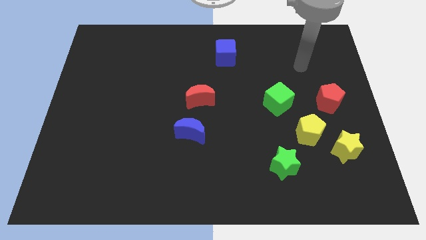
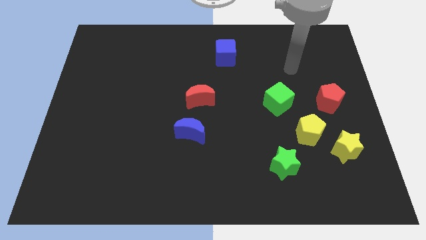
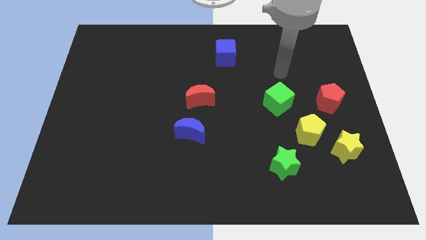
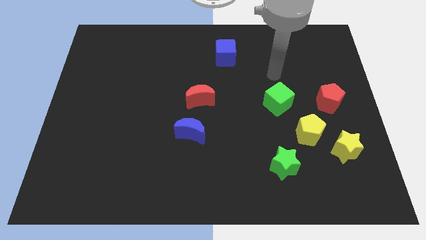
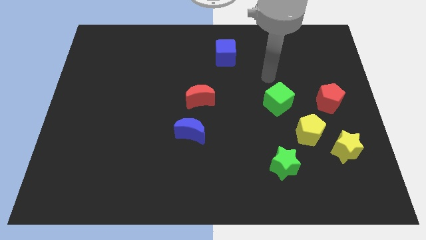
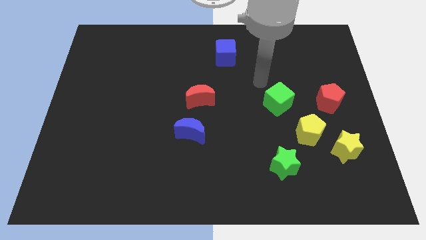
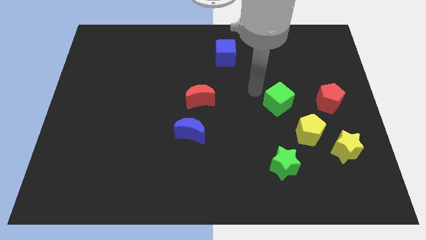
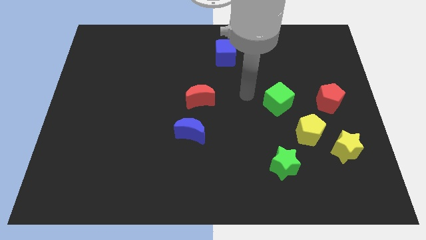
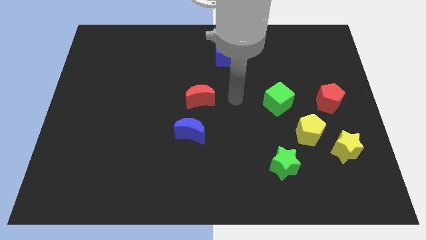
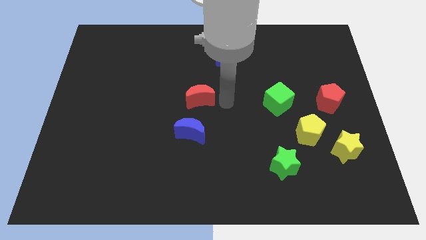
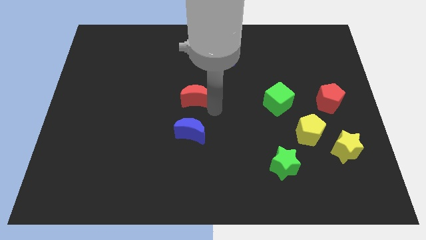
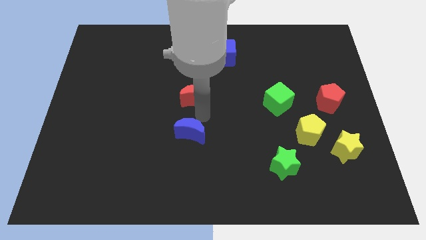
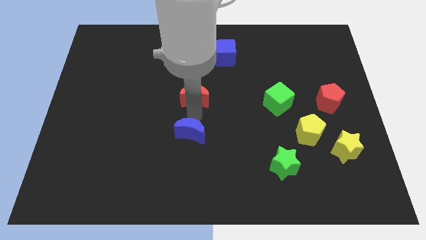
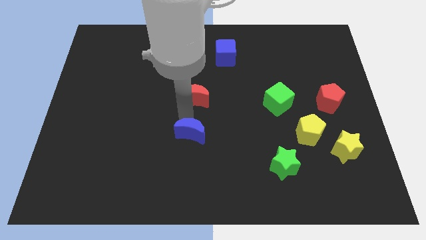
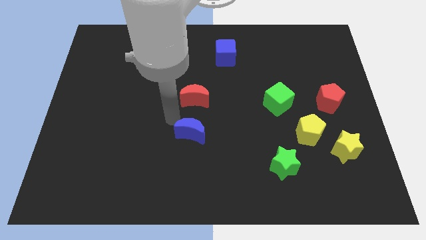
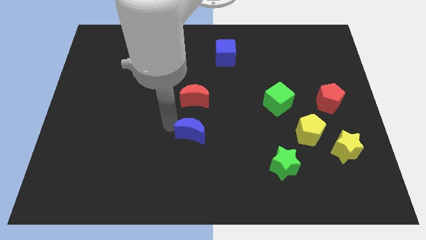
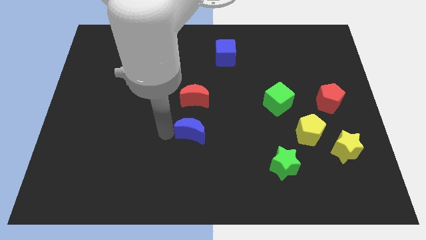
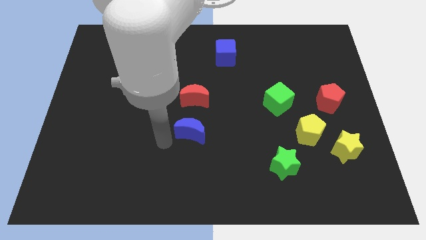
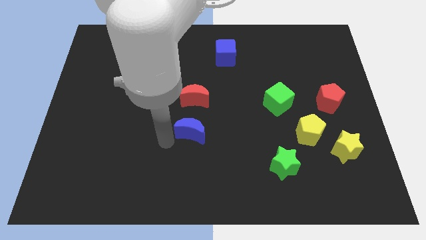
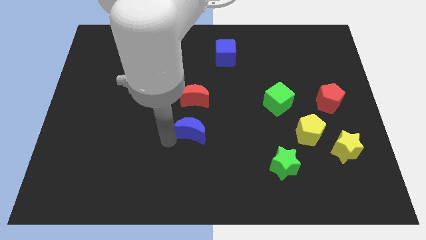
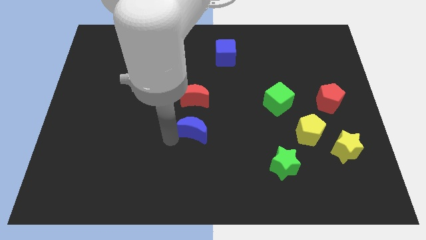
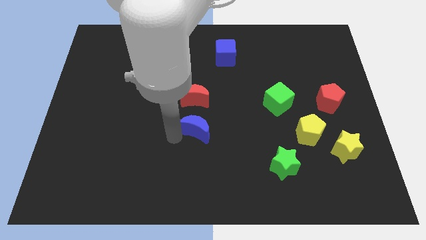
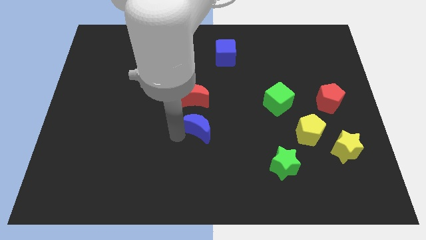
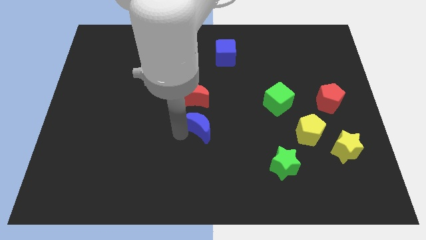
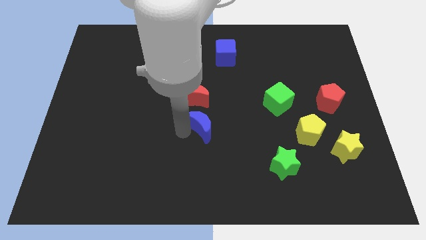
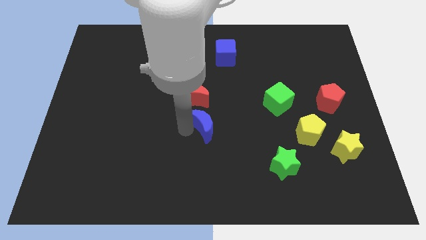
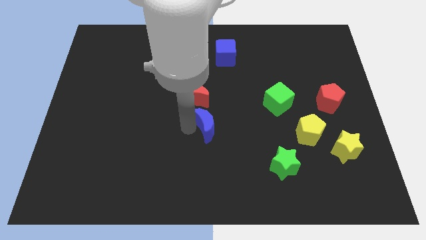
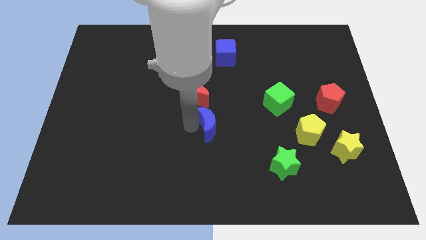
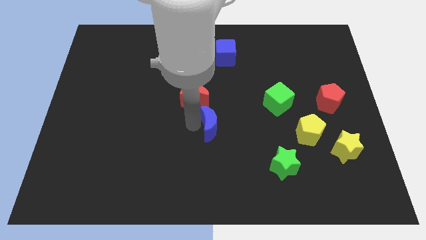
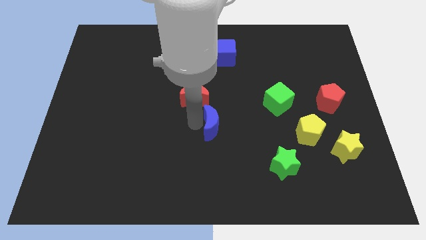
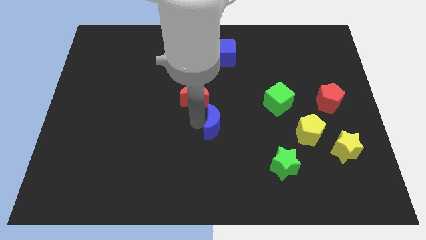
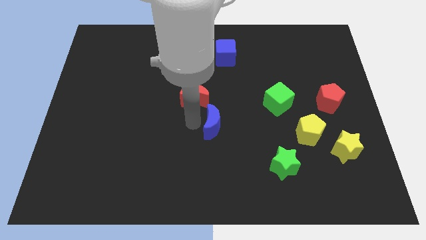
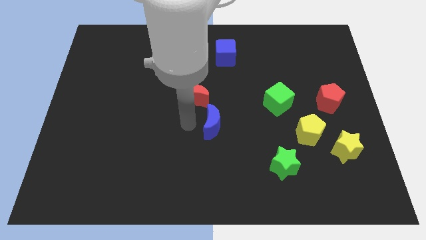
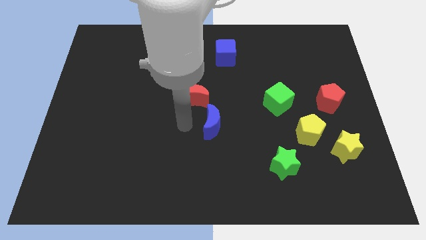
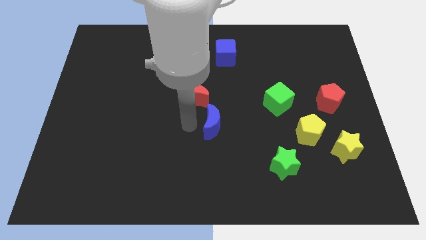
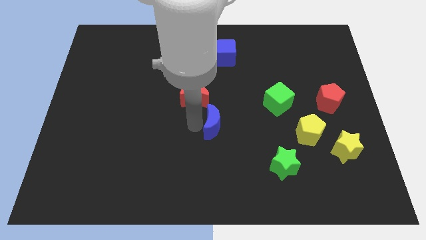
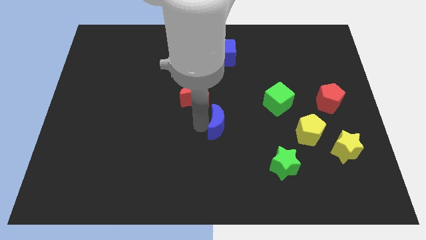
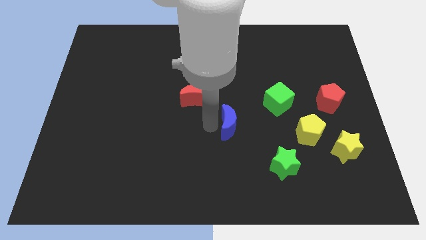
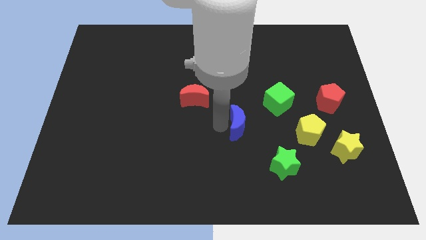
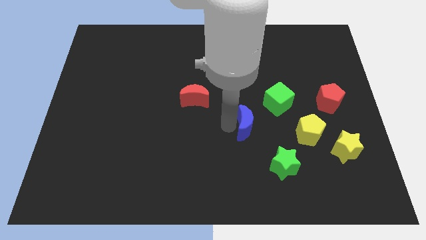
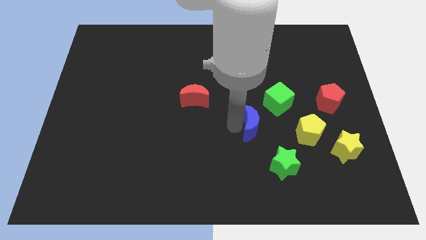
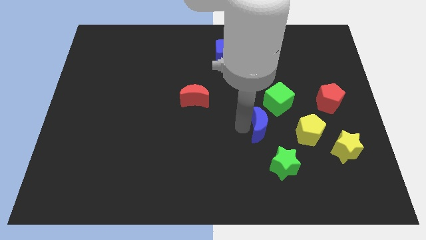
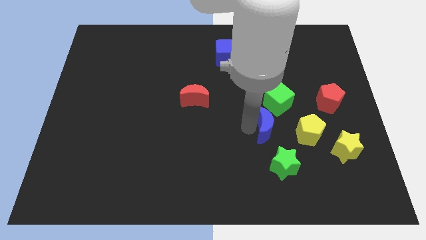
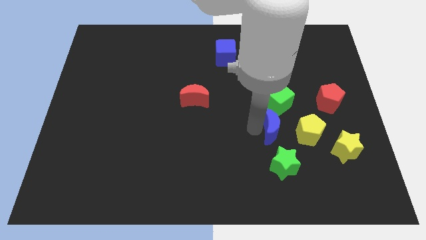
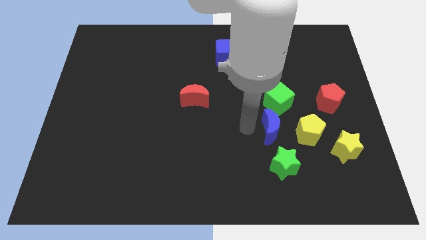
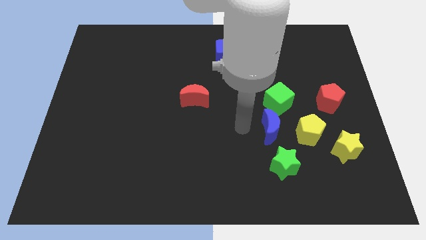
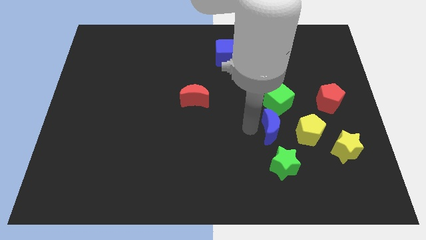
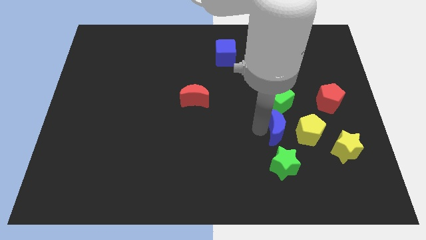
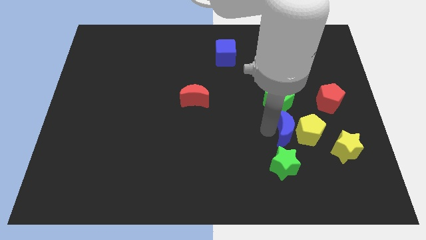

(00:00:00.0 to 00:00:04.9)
push the blue moon towards the yellow pentagon

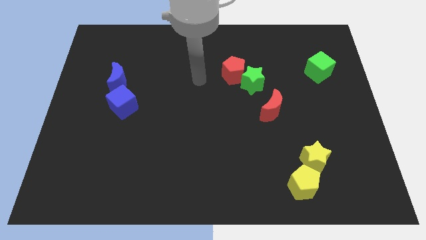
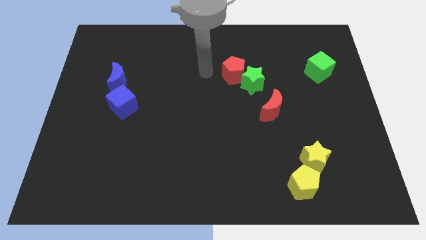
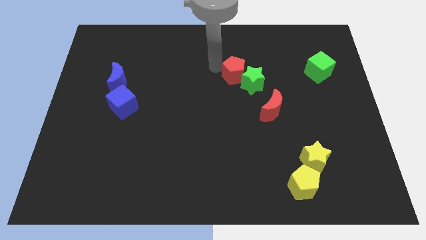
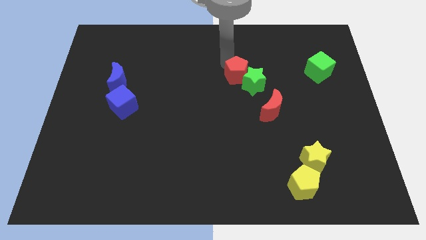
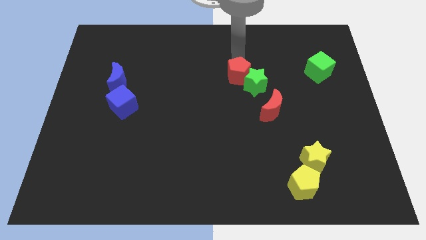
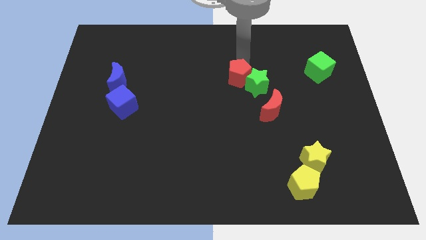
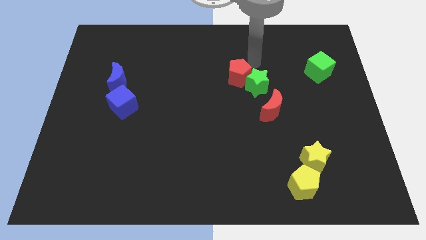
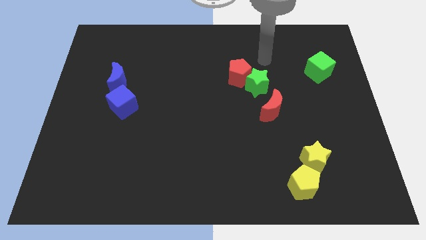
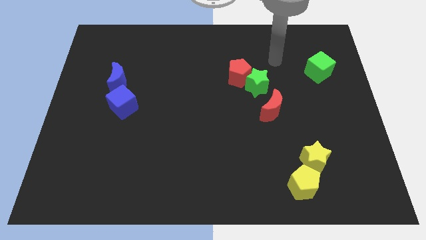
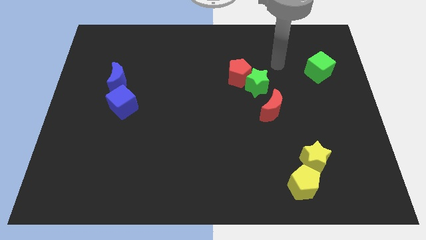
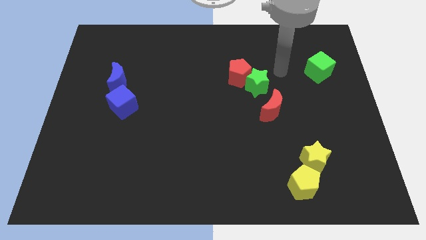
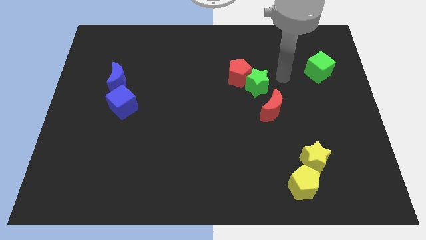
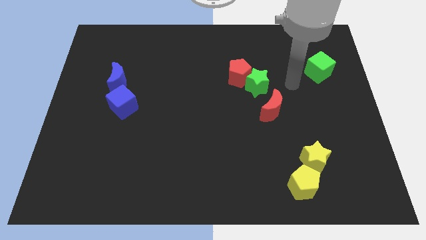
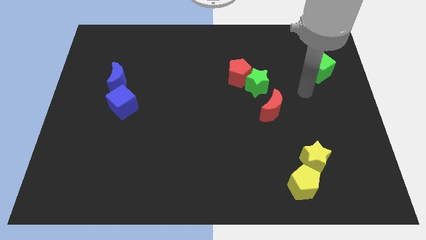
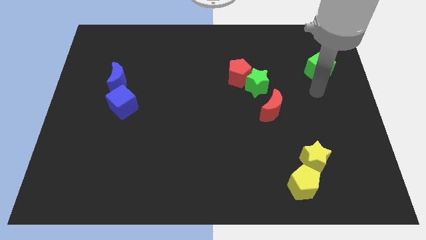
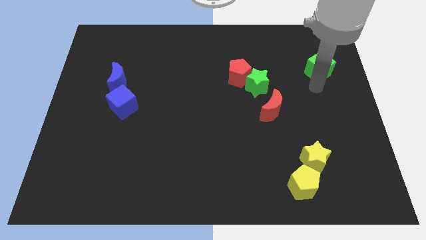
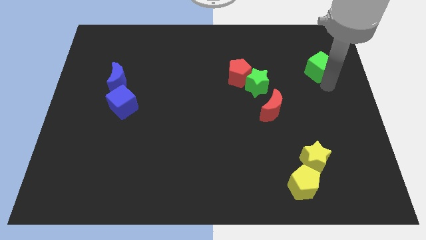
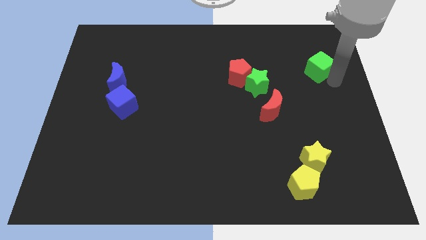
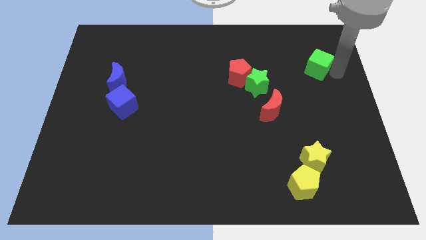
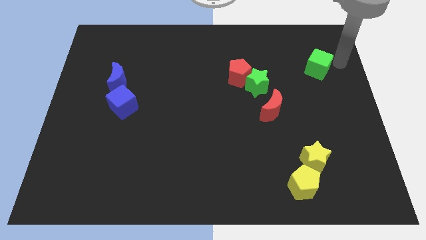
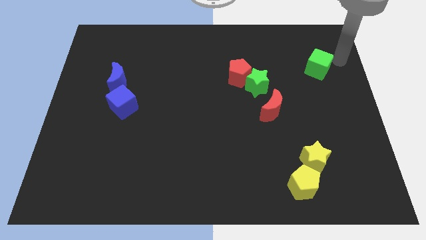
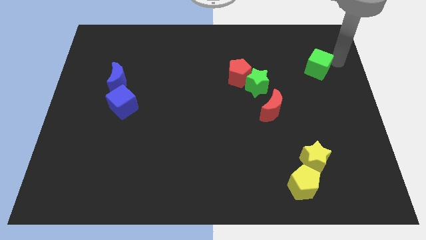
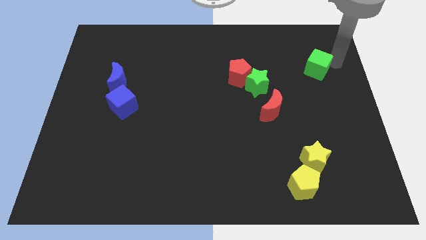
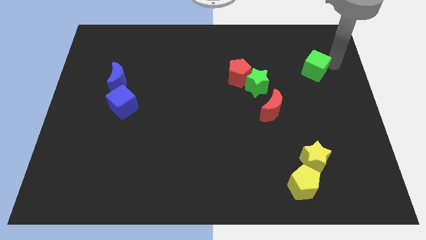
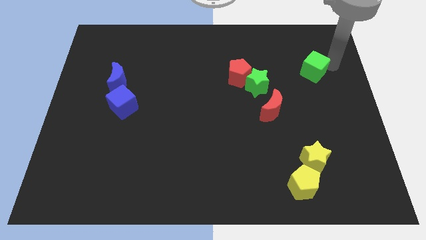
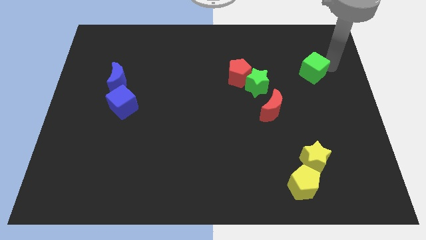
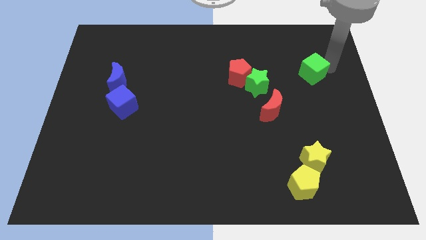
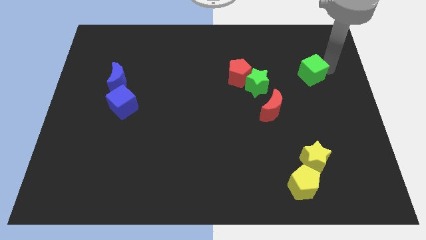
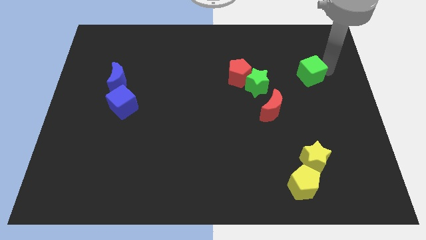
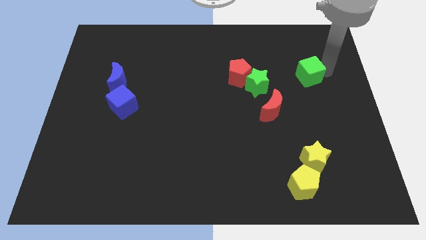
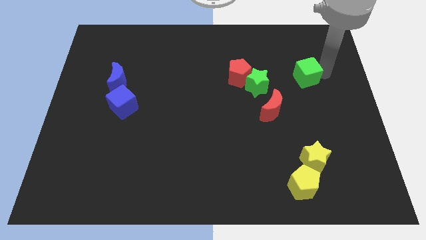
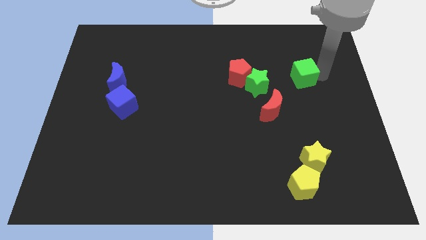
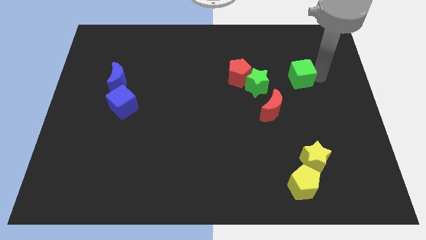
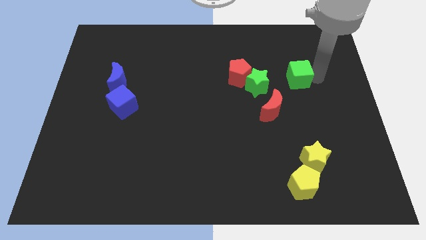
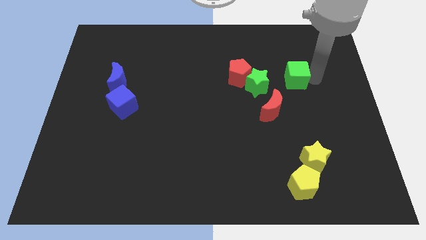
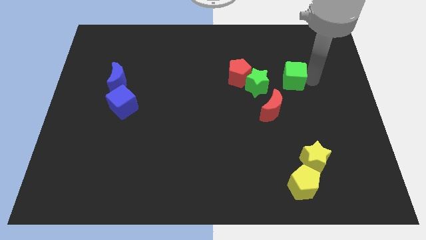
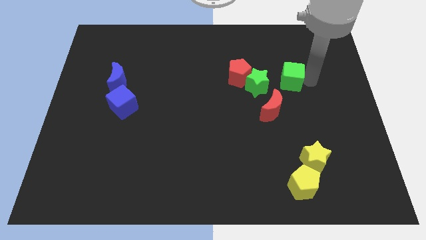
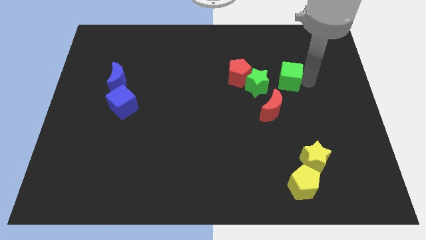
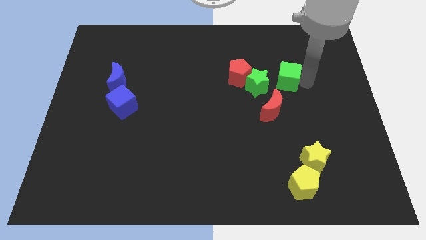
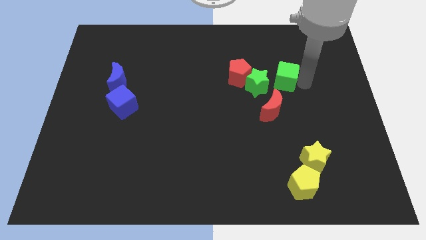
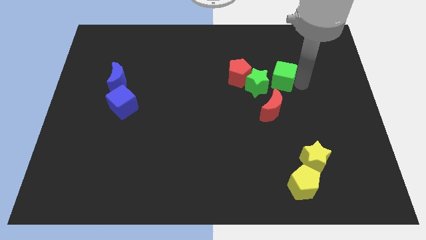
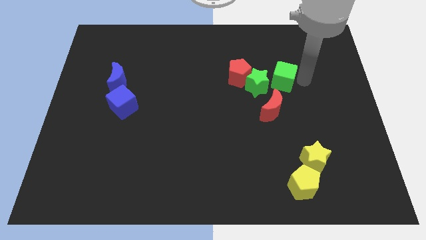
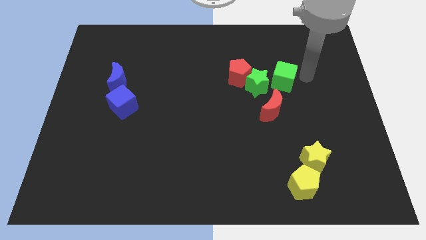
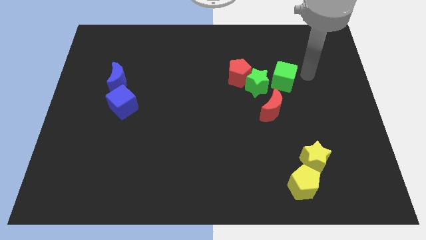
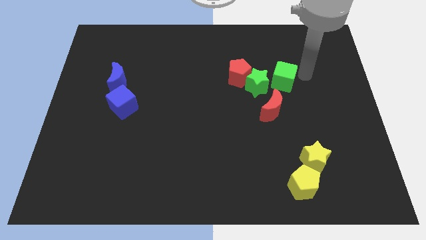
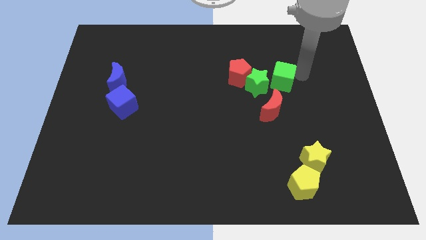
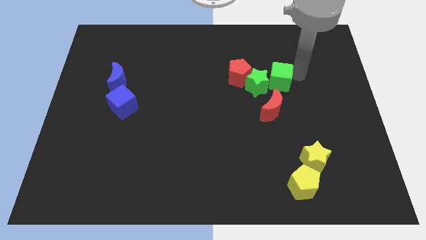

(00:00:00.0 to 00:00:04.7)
slide the green cube towards the green star
